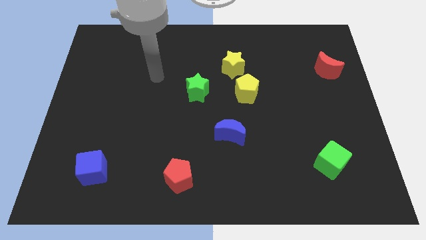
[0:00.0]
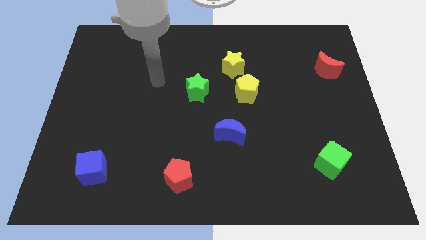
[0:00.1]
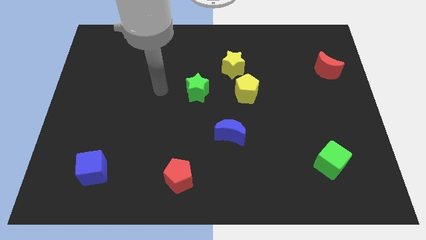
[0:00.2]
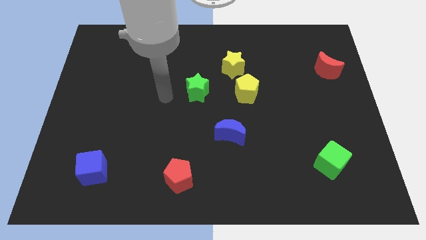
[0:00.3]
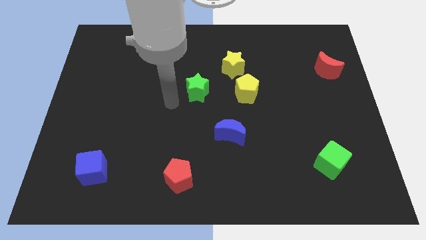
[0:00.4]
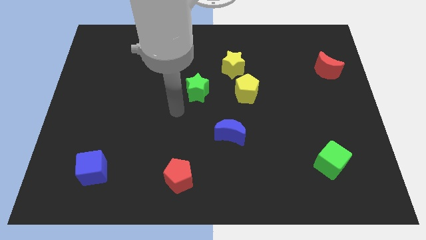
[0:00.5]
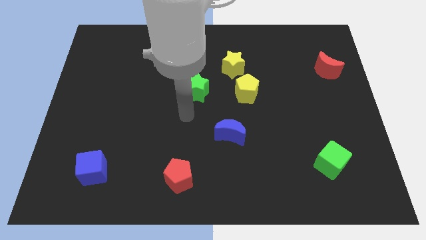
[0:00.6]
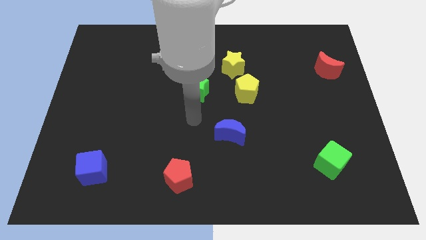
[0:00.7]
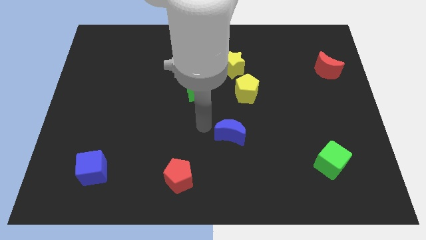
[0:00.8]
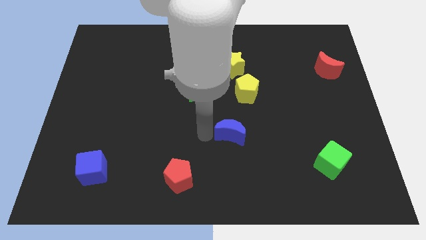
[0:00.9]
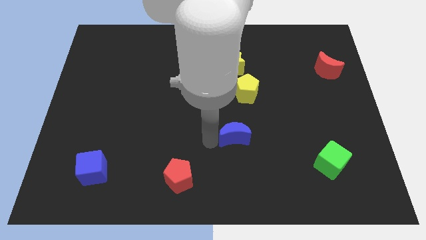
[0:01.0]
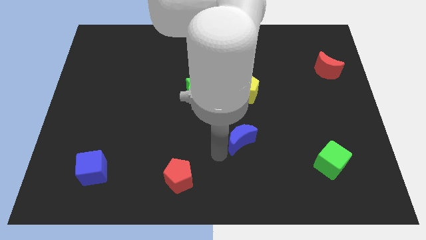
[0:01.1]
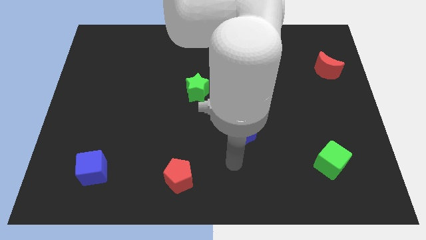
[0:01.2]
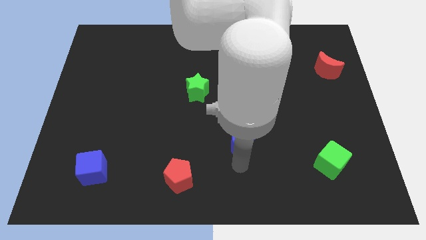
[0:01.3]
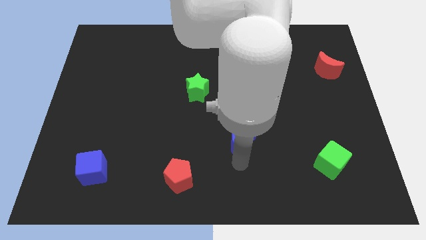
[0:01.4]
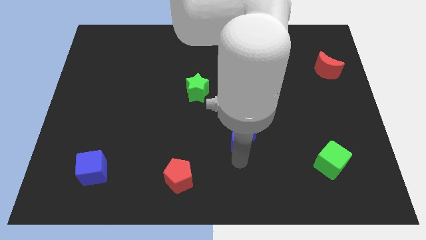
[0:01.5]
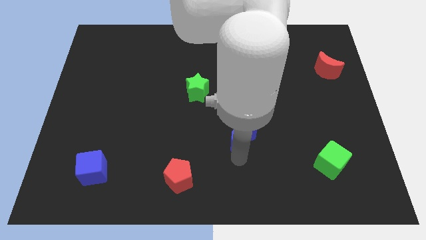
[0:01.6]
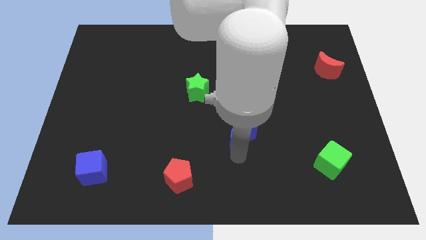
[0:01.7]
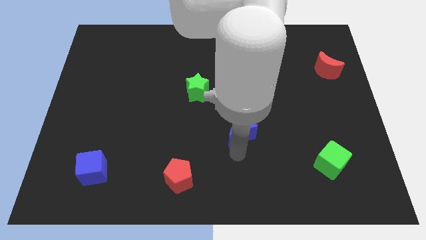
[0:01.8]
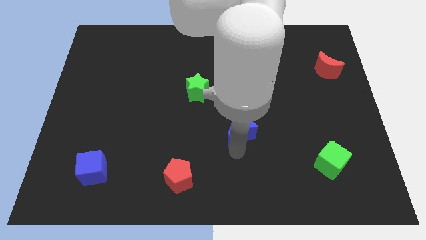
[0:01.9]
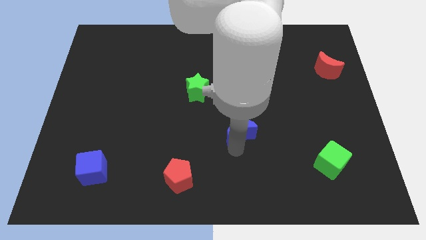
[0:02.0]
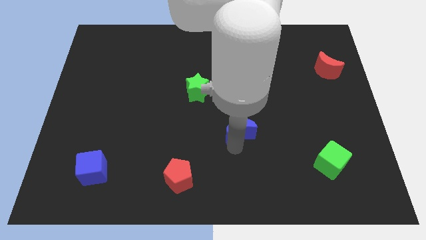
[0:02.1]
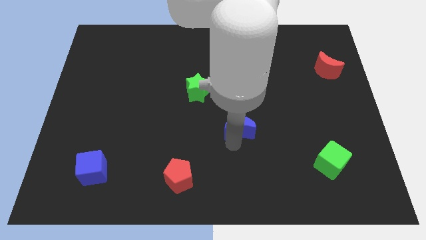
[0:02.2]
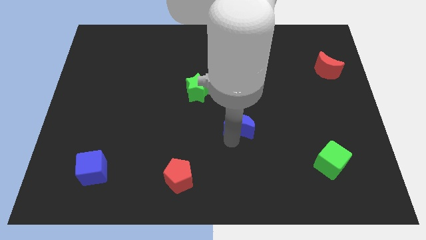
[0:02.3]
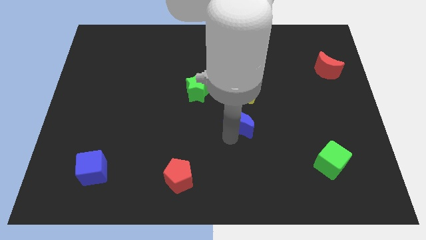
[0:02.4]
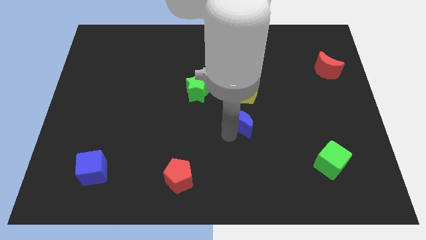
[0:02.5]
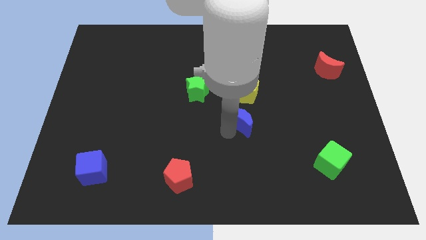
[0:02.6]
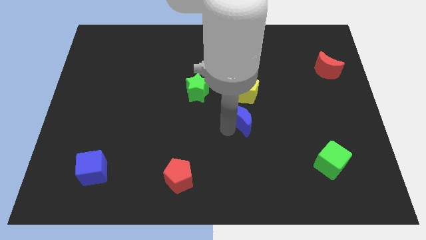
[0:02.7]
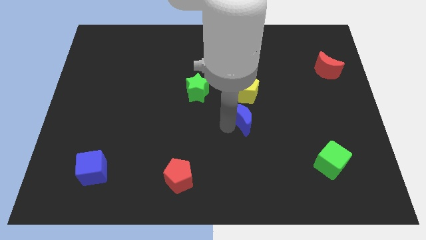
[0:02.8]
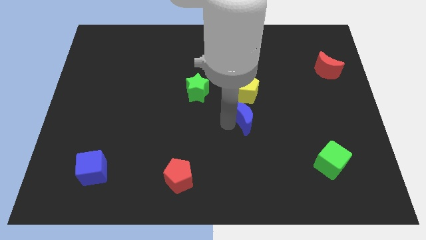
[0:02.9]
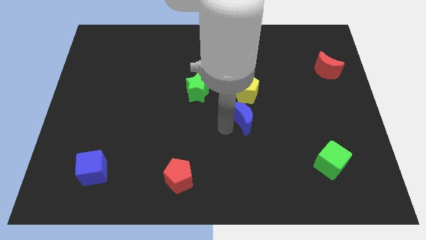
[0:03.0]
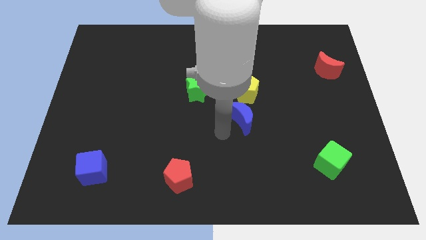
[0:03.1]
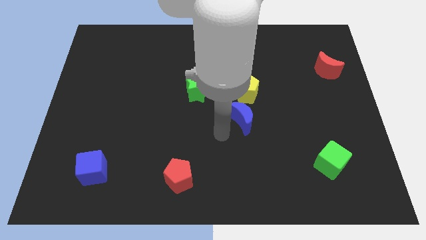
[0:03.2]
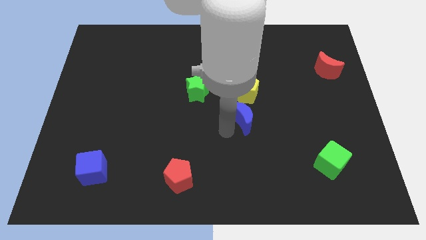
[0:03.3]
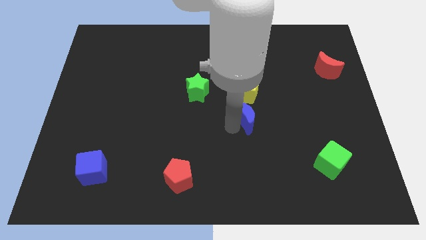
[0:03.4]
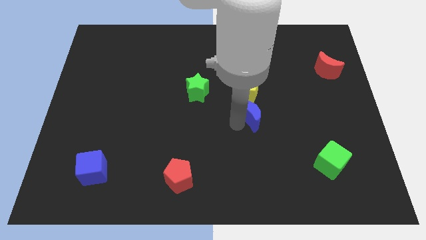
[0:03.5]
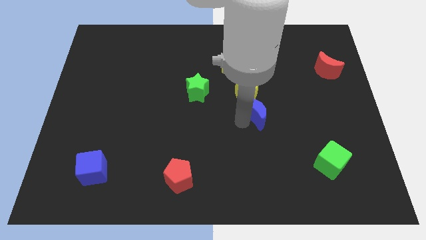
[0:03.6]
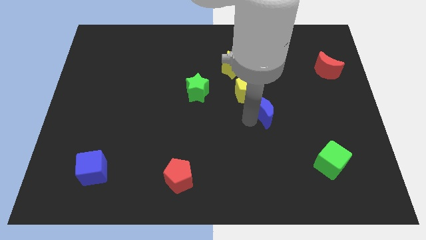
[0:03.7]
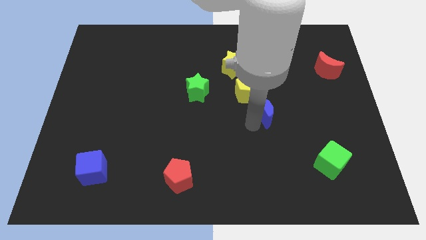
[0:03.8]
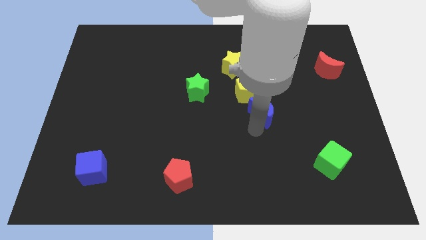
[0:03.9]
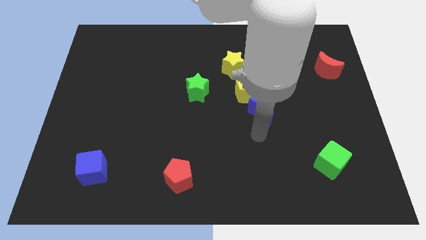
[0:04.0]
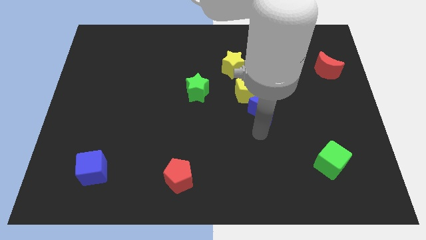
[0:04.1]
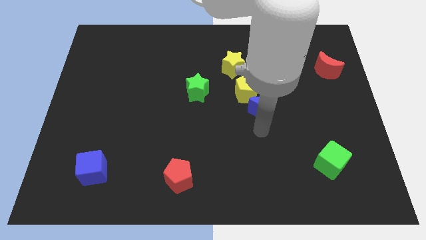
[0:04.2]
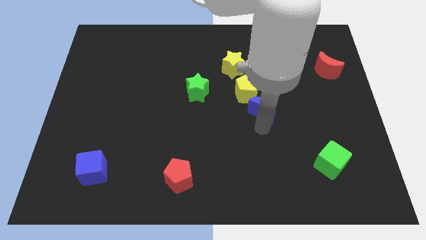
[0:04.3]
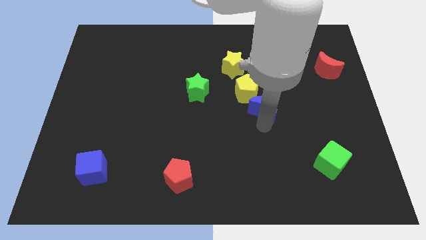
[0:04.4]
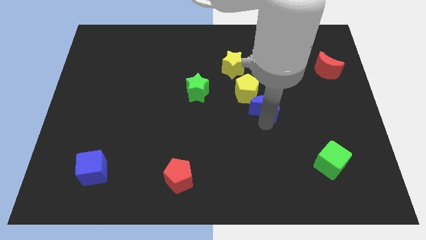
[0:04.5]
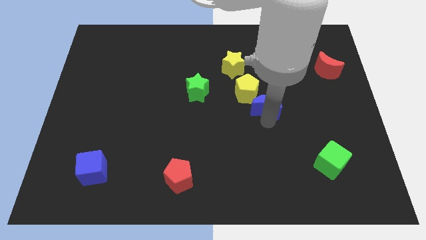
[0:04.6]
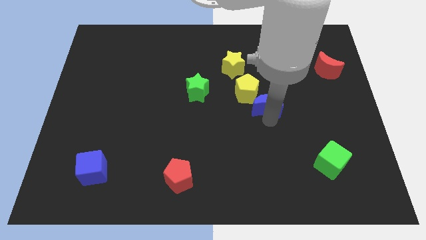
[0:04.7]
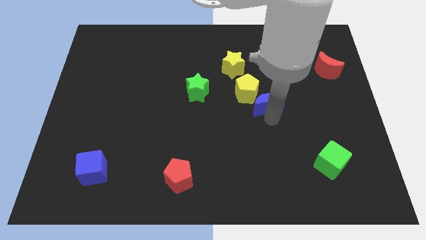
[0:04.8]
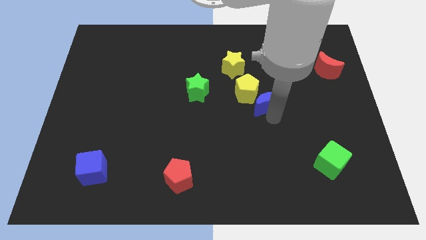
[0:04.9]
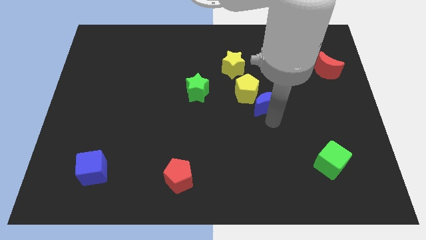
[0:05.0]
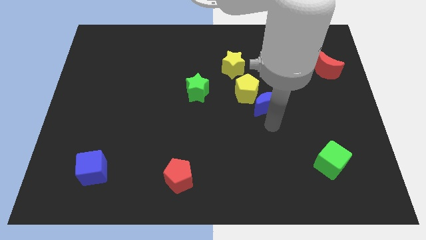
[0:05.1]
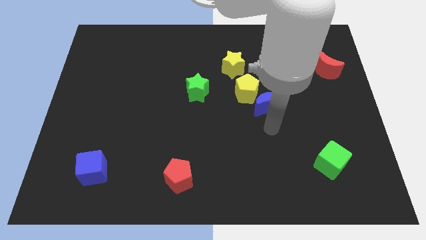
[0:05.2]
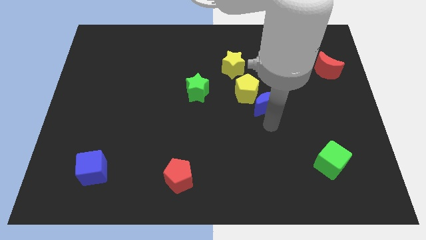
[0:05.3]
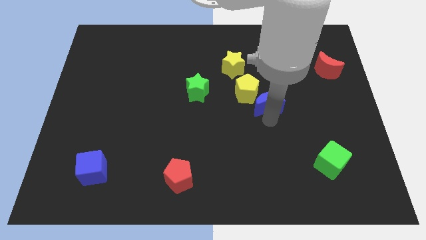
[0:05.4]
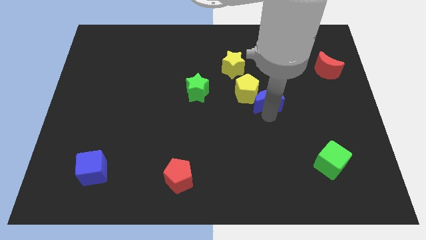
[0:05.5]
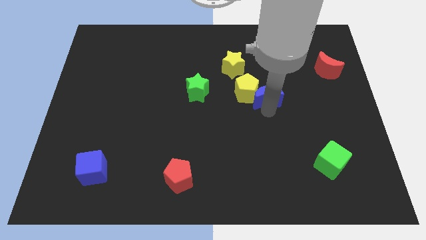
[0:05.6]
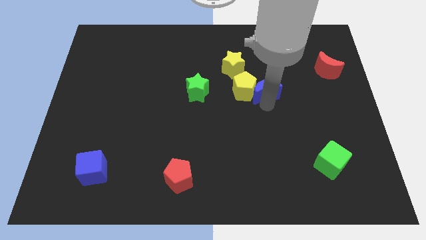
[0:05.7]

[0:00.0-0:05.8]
push the blue moon to the top right side of the yellow pentagon
